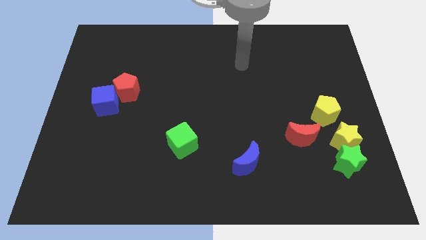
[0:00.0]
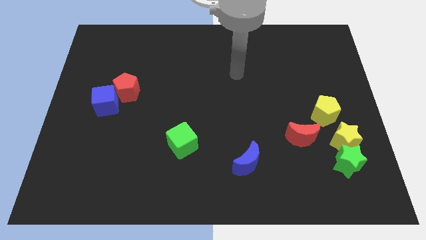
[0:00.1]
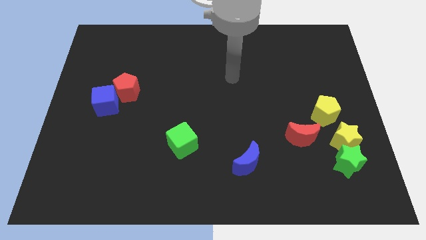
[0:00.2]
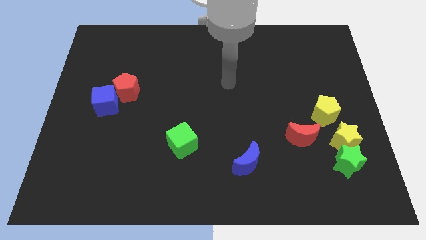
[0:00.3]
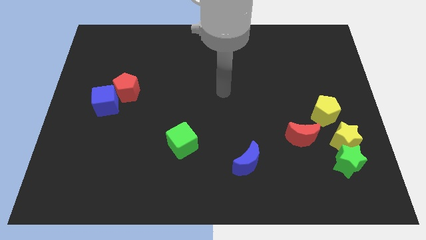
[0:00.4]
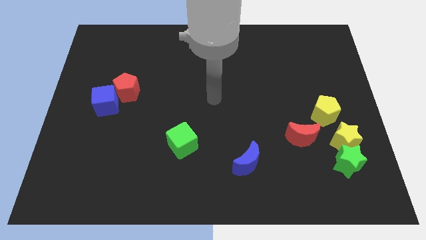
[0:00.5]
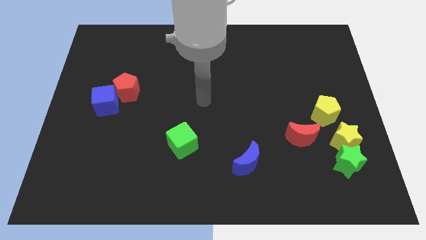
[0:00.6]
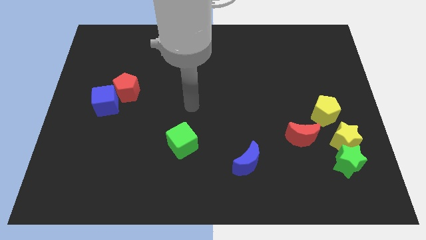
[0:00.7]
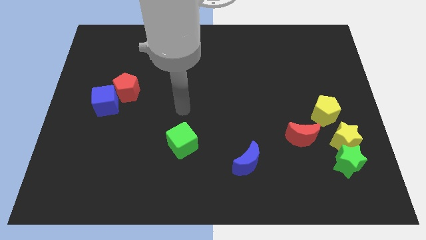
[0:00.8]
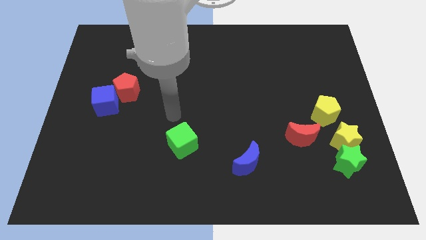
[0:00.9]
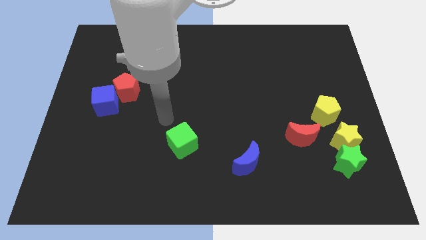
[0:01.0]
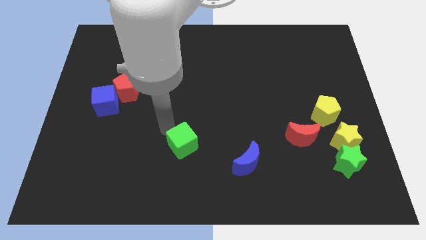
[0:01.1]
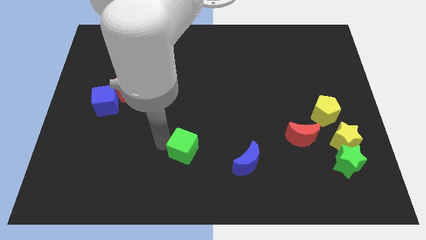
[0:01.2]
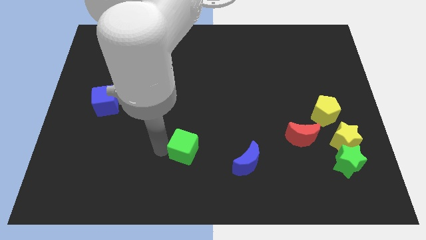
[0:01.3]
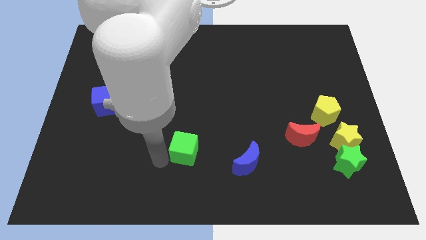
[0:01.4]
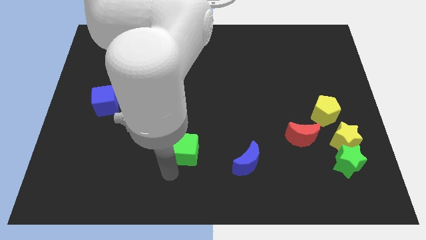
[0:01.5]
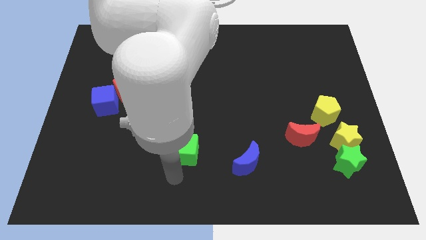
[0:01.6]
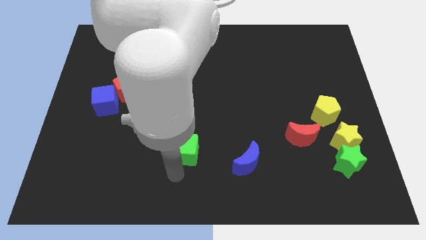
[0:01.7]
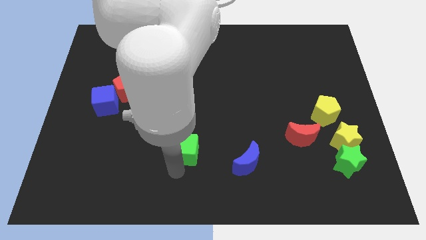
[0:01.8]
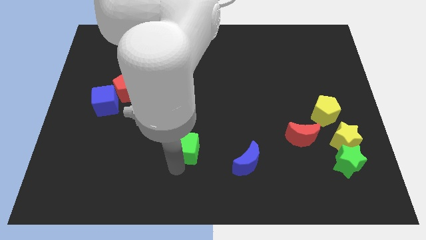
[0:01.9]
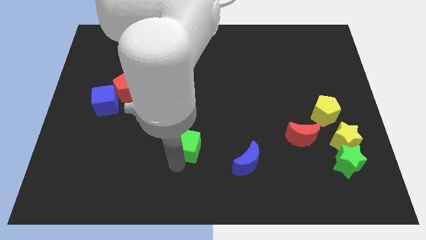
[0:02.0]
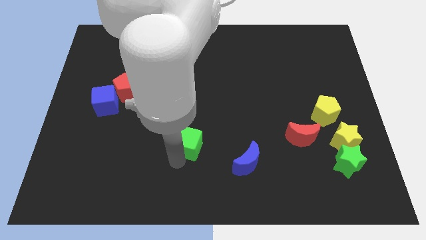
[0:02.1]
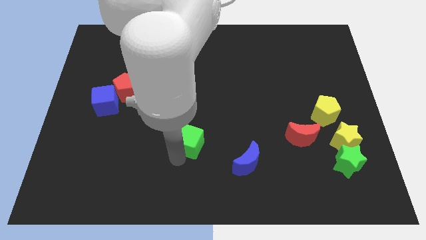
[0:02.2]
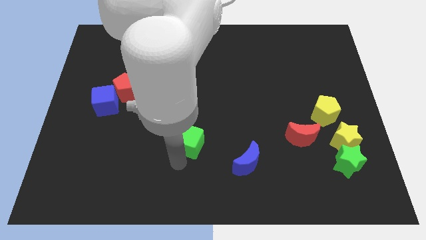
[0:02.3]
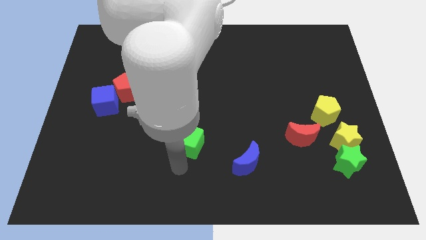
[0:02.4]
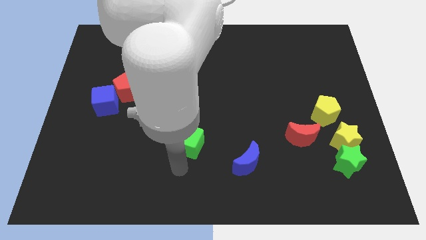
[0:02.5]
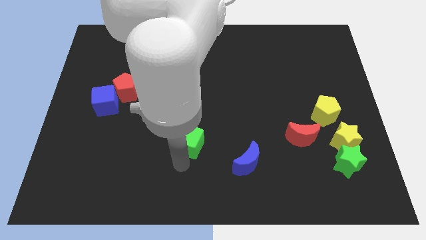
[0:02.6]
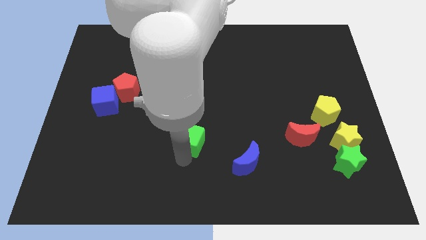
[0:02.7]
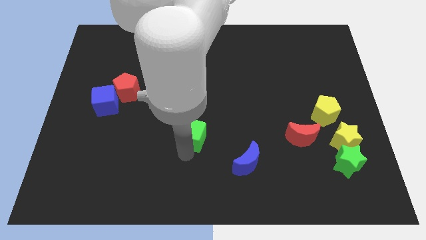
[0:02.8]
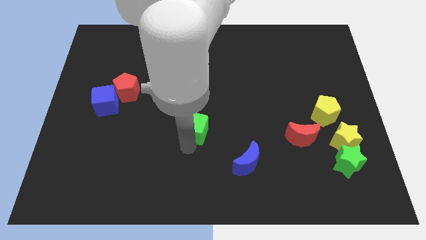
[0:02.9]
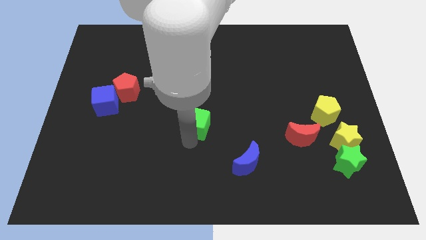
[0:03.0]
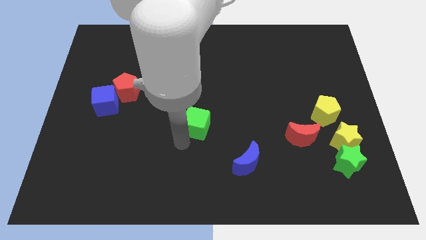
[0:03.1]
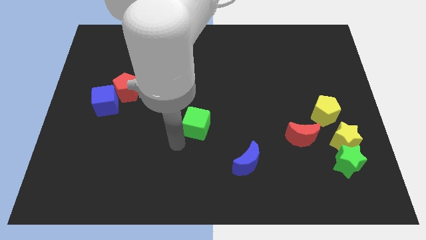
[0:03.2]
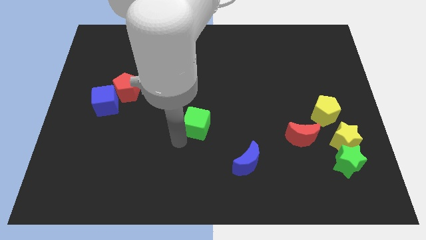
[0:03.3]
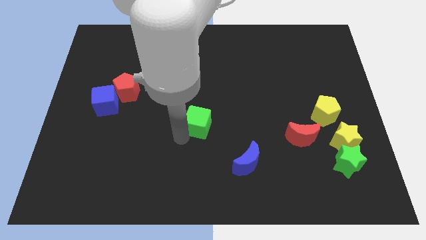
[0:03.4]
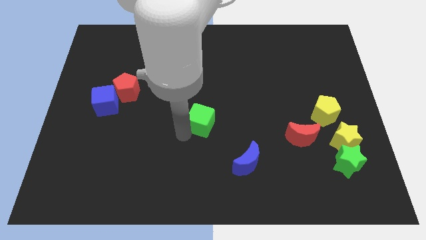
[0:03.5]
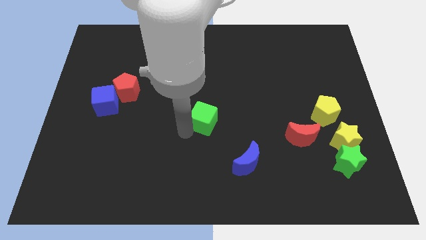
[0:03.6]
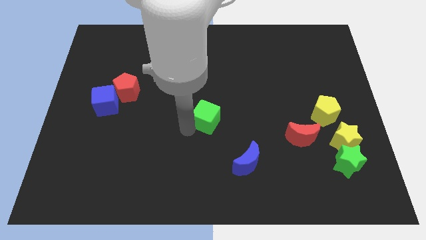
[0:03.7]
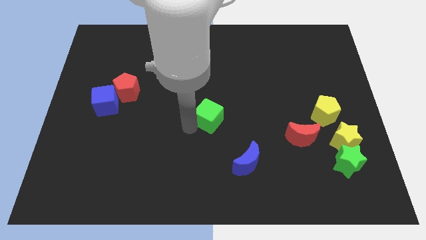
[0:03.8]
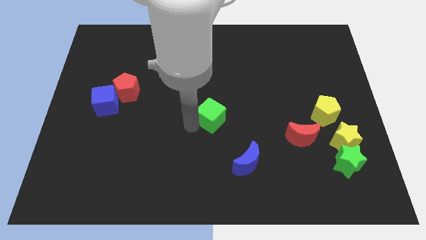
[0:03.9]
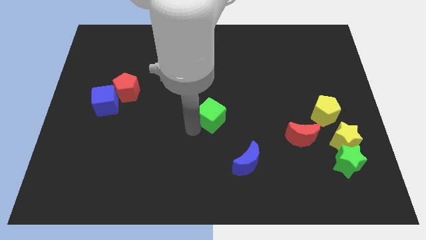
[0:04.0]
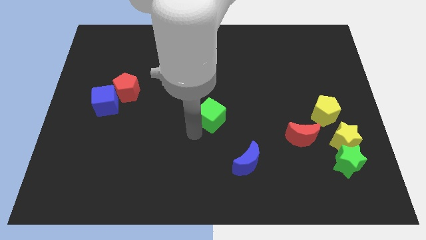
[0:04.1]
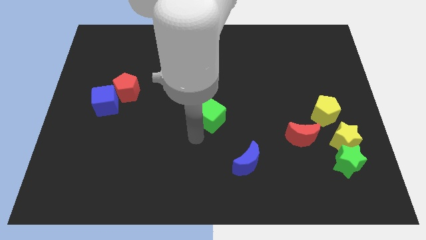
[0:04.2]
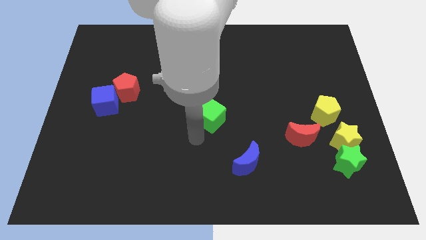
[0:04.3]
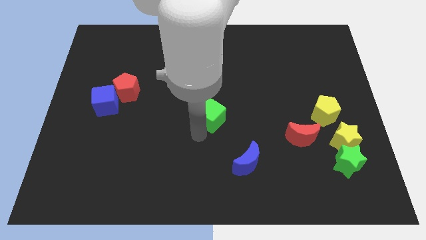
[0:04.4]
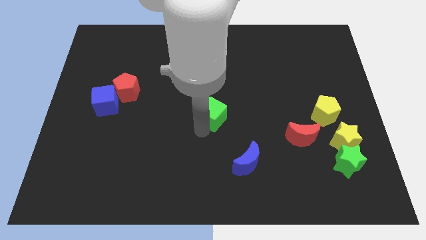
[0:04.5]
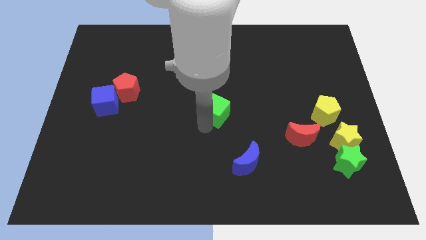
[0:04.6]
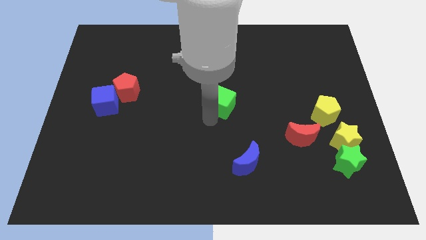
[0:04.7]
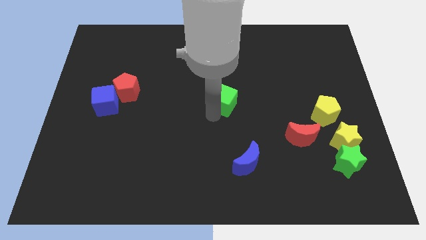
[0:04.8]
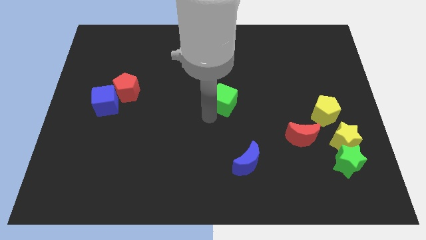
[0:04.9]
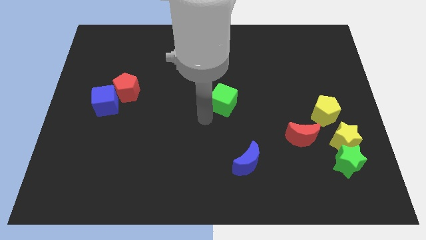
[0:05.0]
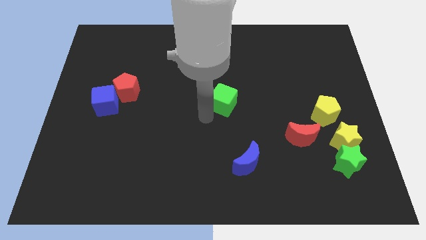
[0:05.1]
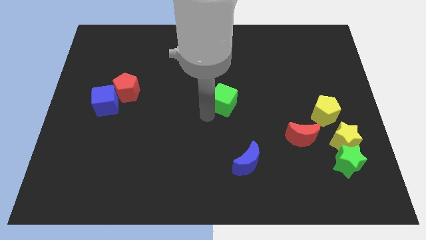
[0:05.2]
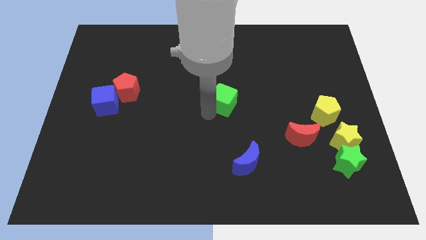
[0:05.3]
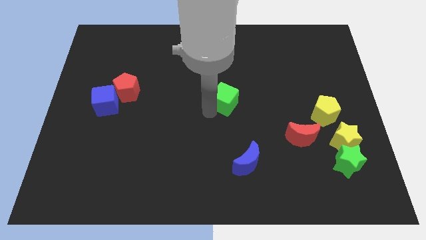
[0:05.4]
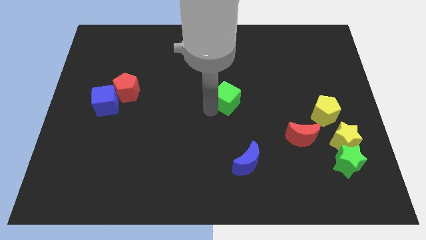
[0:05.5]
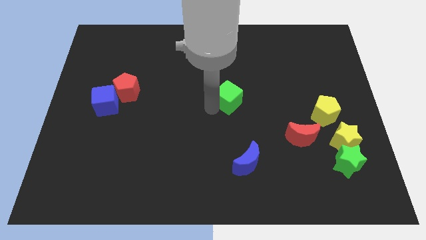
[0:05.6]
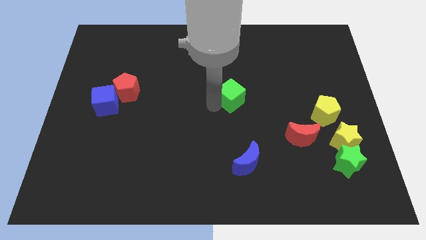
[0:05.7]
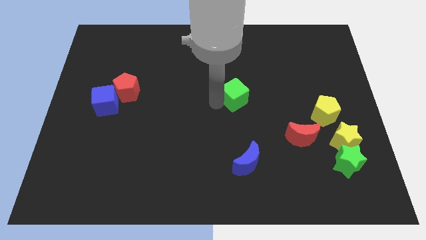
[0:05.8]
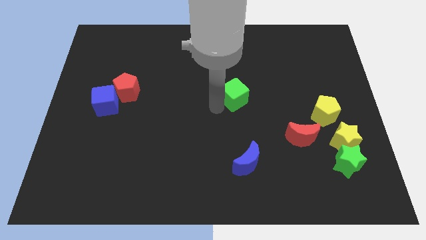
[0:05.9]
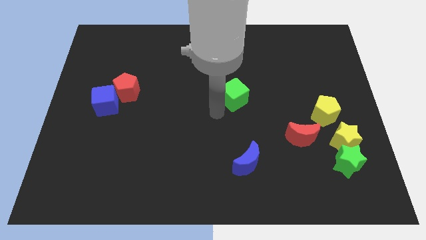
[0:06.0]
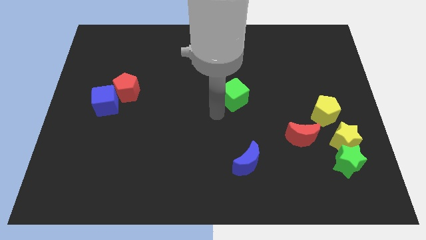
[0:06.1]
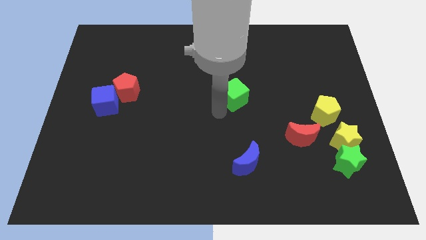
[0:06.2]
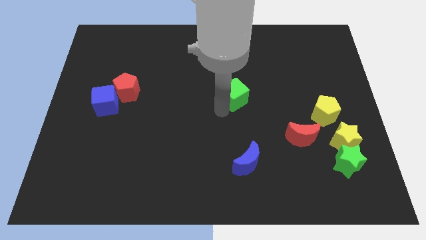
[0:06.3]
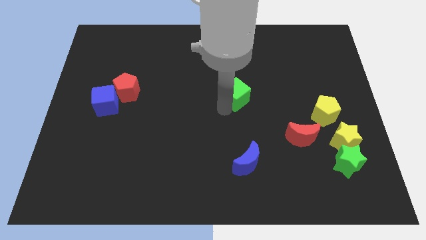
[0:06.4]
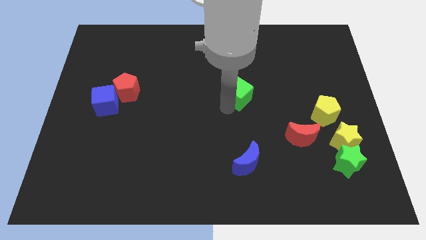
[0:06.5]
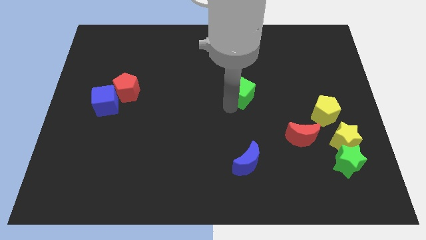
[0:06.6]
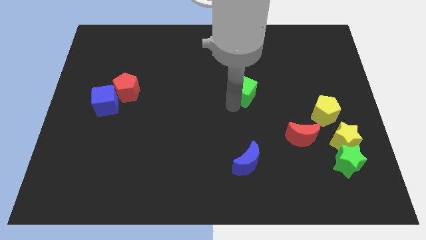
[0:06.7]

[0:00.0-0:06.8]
push the green cube diagonally upwards and right

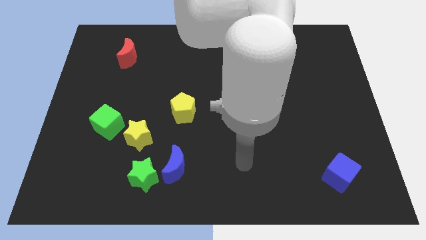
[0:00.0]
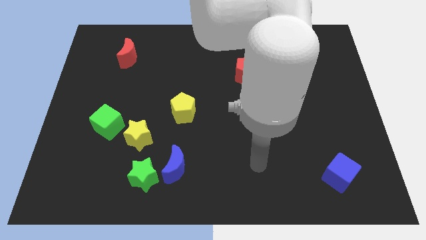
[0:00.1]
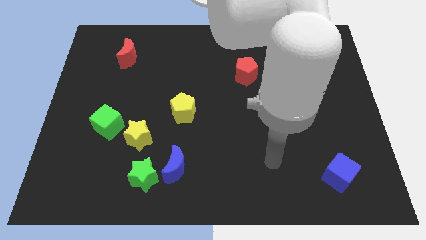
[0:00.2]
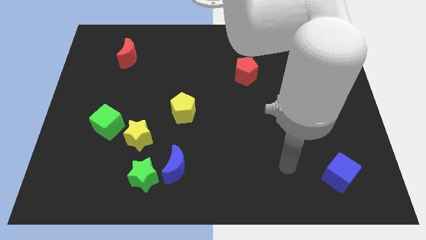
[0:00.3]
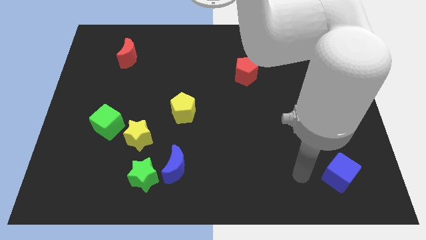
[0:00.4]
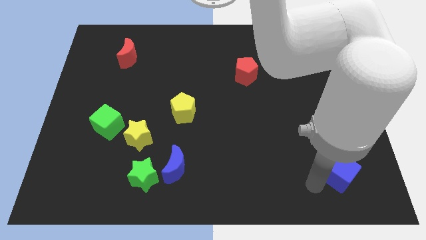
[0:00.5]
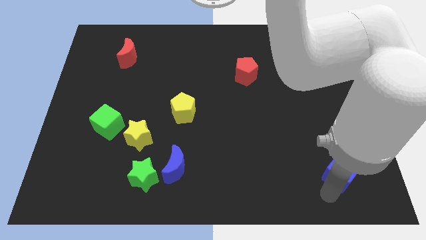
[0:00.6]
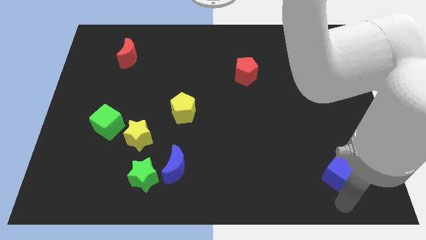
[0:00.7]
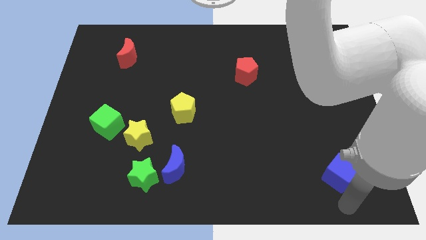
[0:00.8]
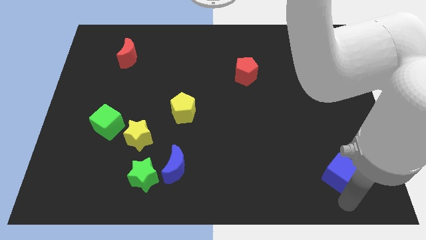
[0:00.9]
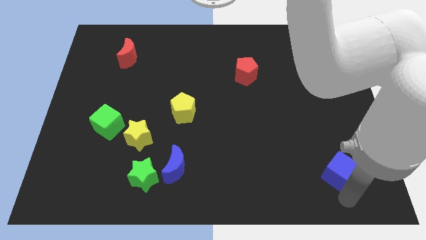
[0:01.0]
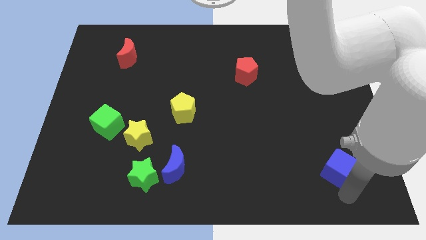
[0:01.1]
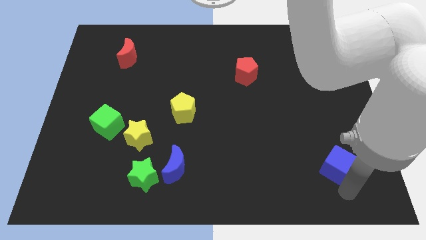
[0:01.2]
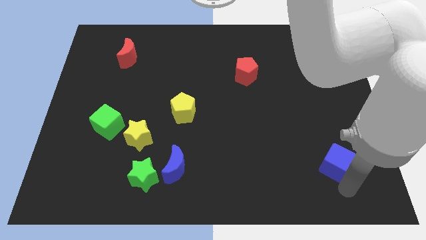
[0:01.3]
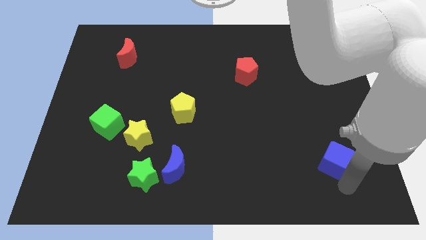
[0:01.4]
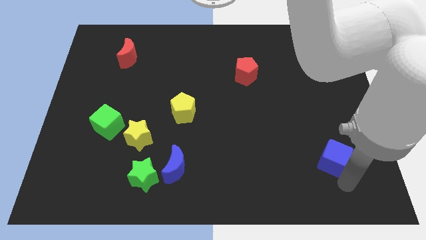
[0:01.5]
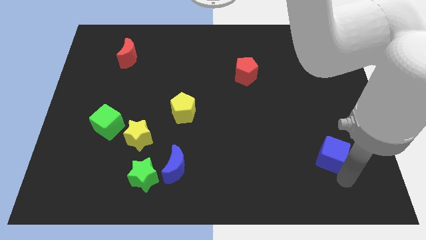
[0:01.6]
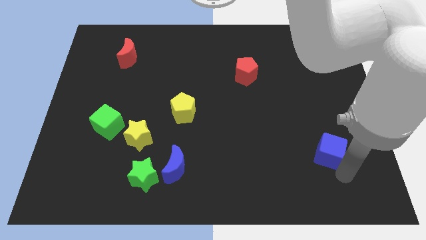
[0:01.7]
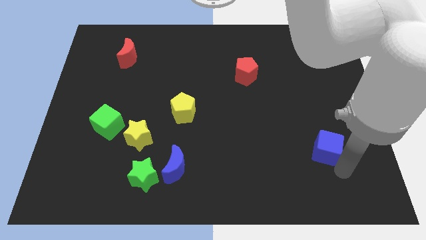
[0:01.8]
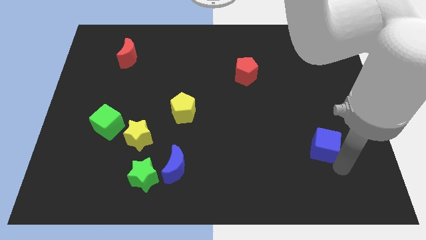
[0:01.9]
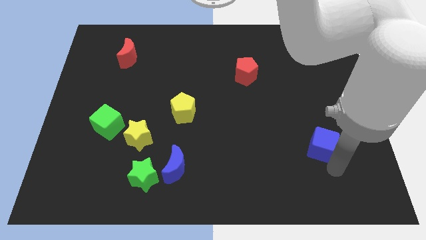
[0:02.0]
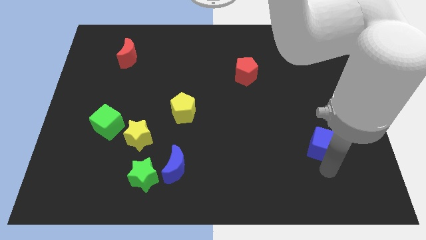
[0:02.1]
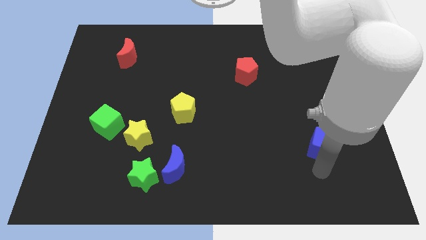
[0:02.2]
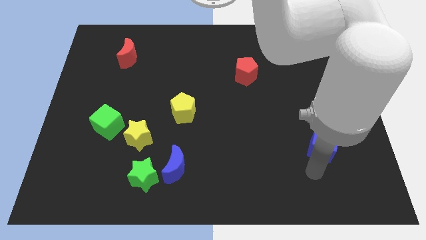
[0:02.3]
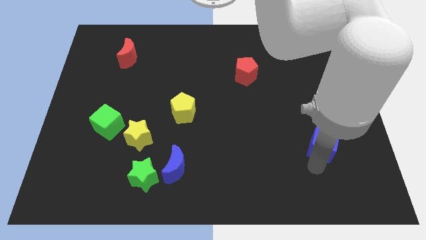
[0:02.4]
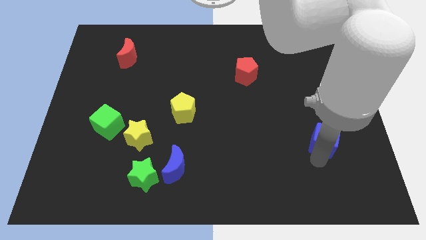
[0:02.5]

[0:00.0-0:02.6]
slightly slide the blue cube upwards
